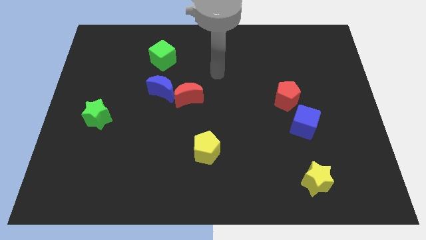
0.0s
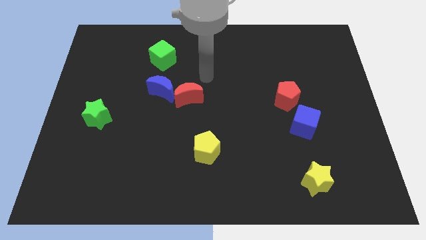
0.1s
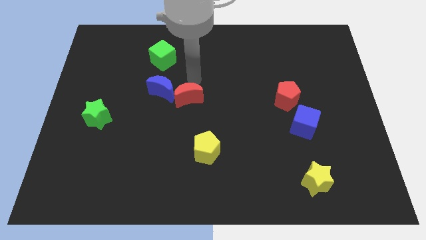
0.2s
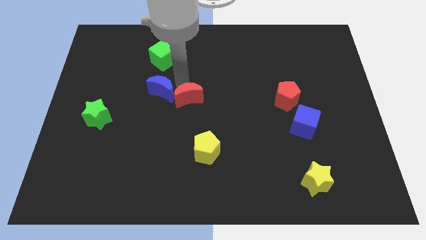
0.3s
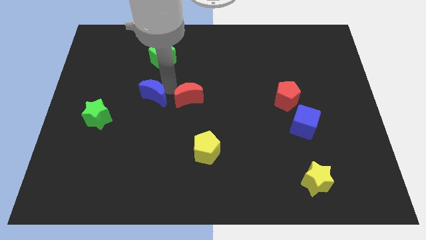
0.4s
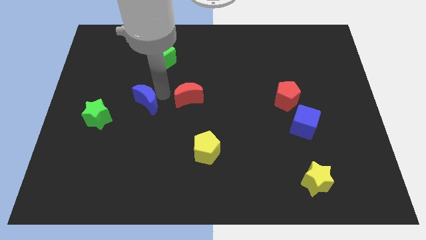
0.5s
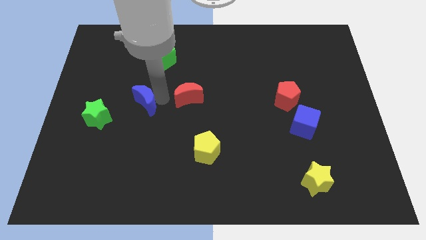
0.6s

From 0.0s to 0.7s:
separate the red moon from the blue moon

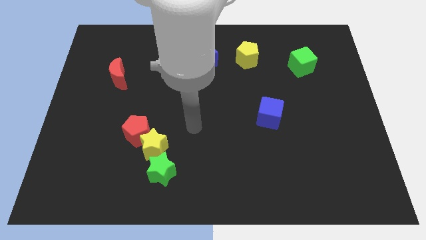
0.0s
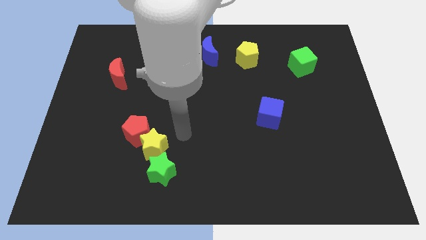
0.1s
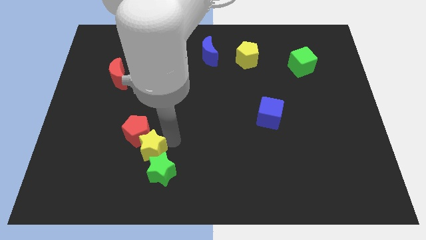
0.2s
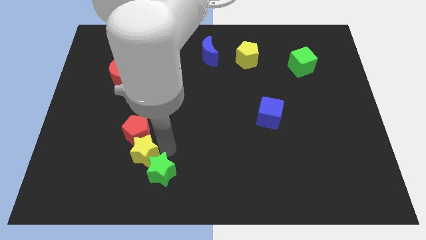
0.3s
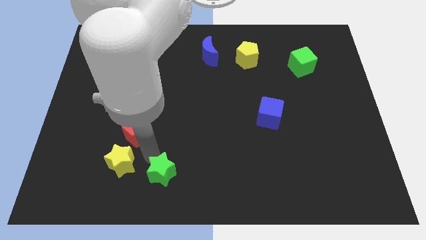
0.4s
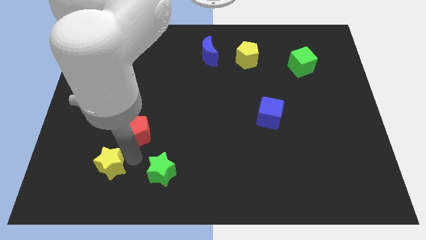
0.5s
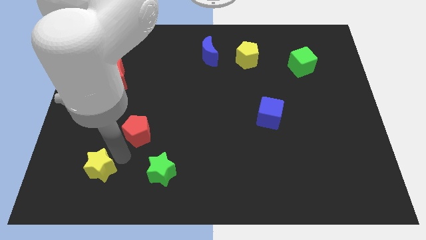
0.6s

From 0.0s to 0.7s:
separate the red pentagon from the yellow star

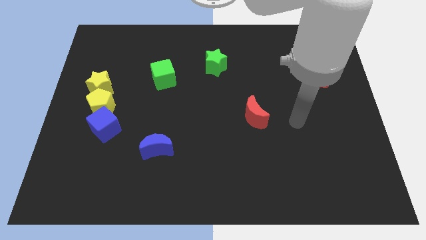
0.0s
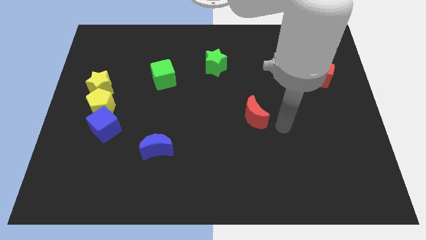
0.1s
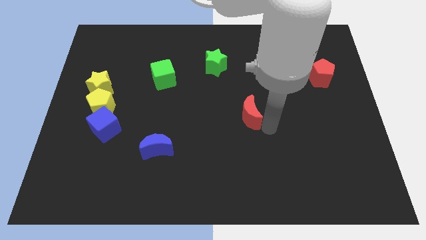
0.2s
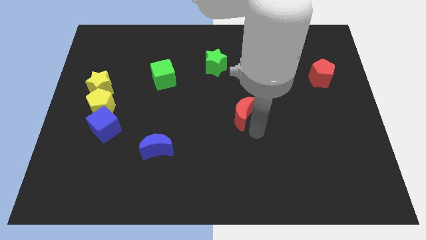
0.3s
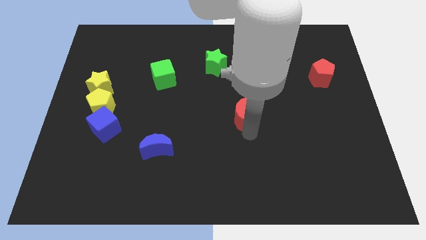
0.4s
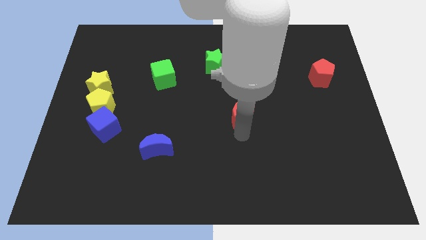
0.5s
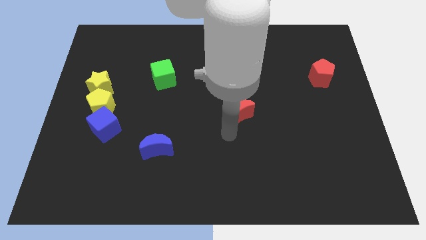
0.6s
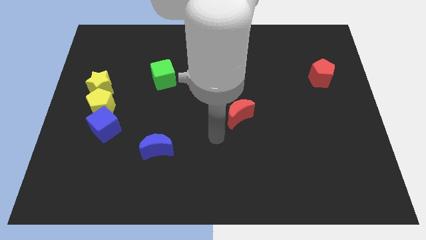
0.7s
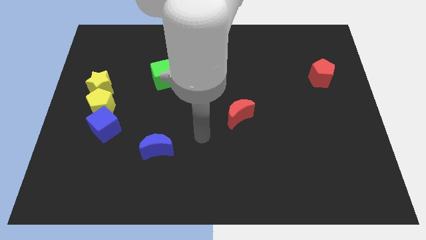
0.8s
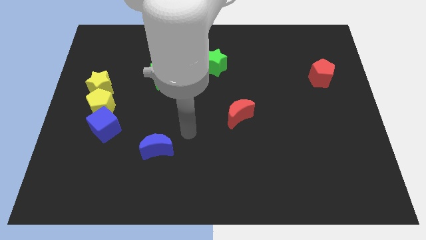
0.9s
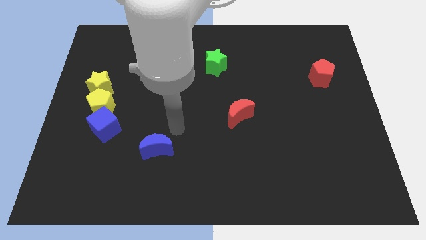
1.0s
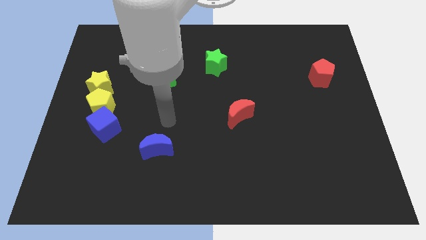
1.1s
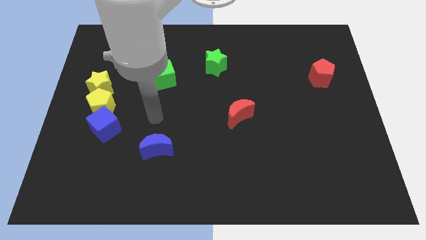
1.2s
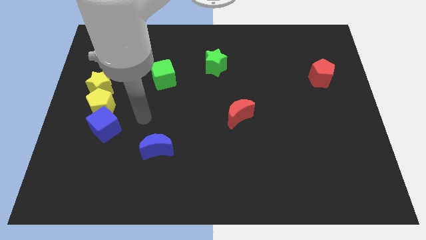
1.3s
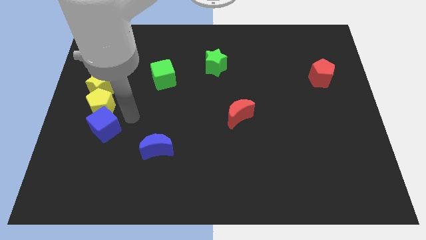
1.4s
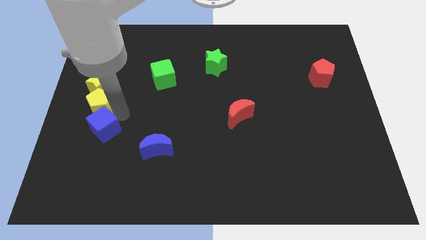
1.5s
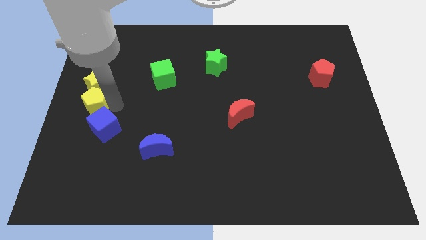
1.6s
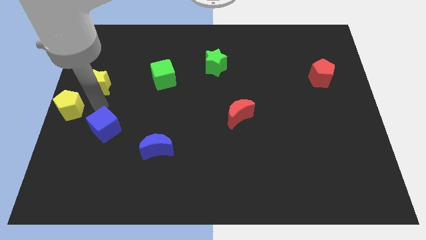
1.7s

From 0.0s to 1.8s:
pull the blue cube apart from the yellow pentagon

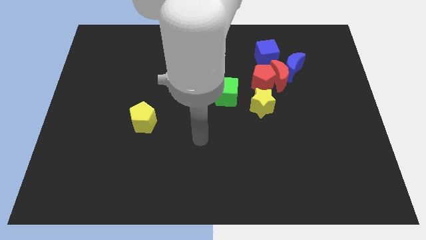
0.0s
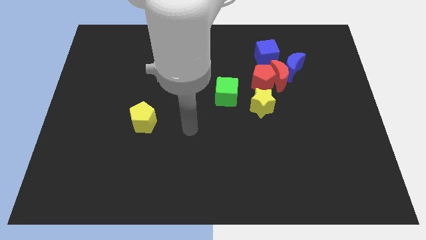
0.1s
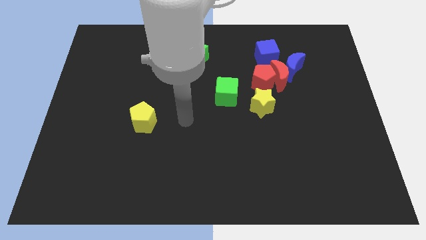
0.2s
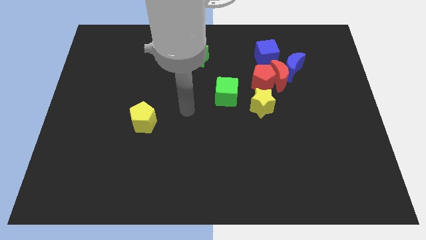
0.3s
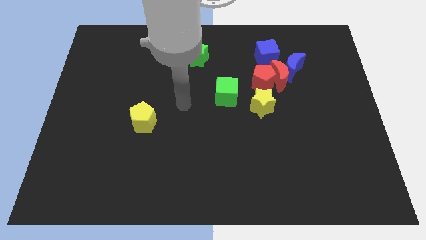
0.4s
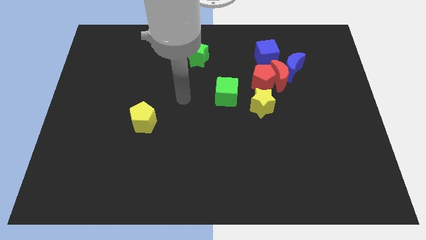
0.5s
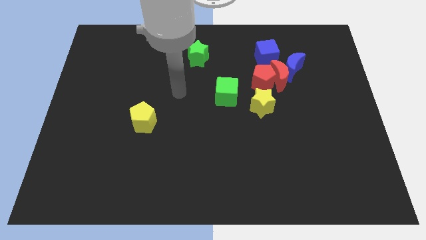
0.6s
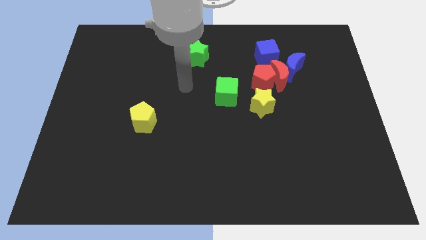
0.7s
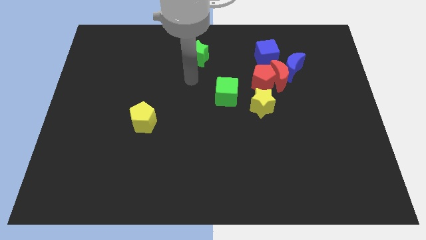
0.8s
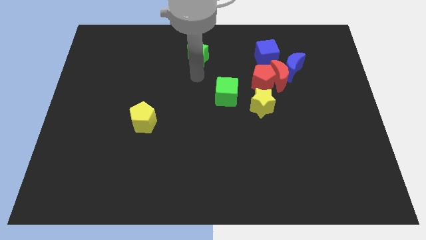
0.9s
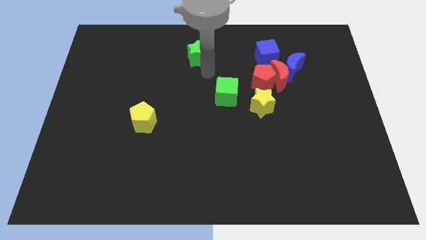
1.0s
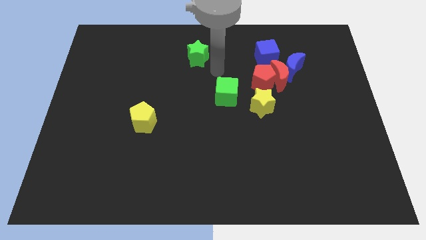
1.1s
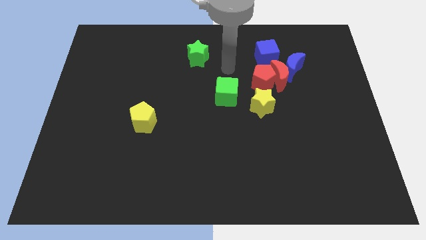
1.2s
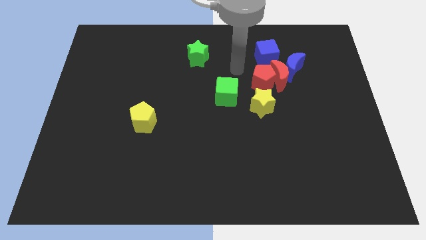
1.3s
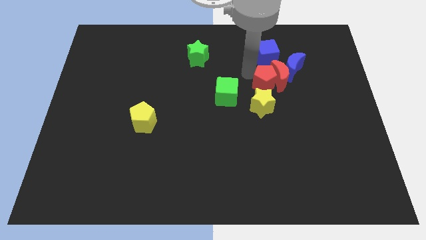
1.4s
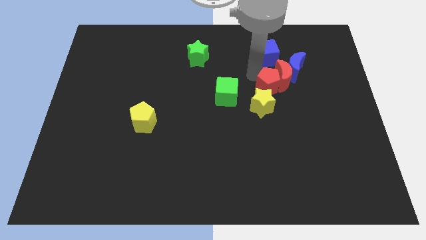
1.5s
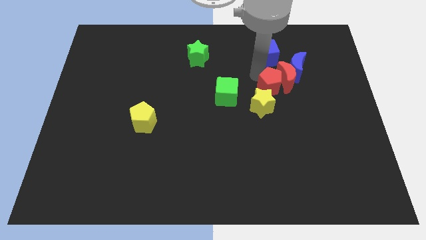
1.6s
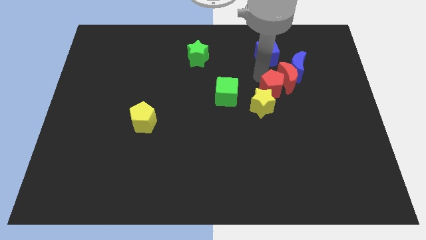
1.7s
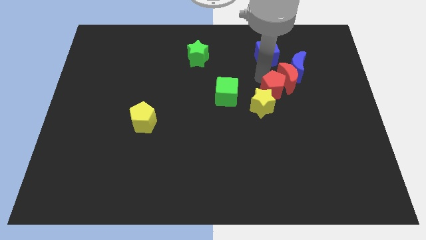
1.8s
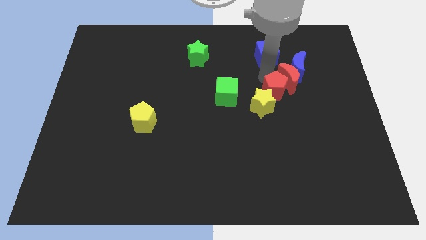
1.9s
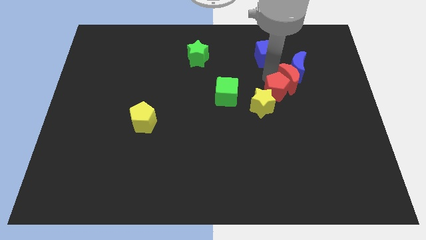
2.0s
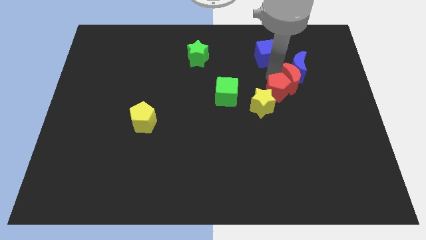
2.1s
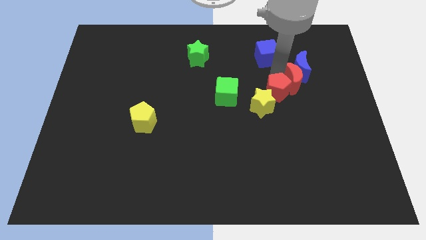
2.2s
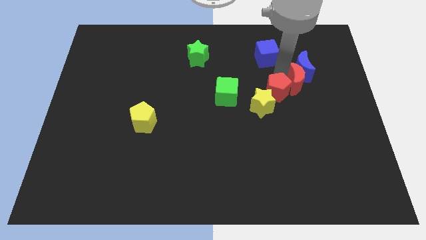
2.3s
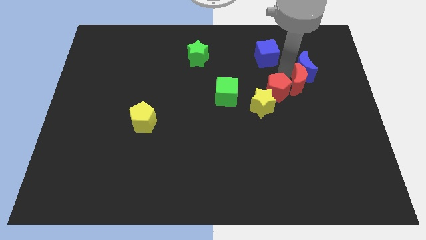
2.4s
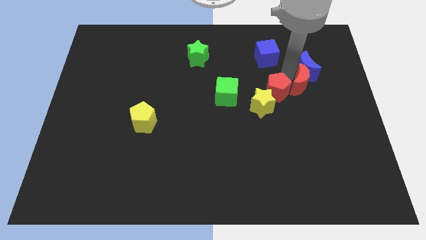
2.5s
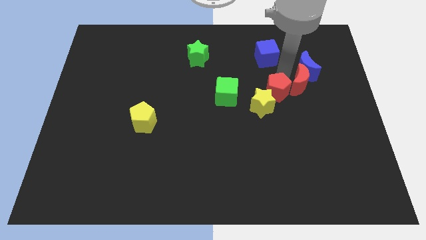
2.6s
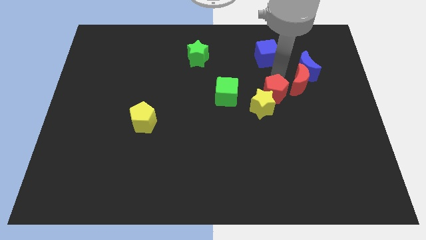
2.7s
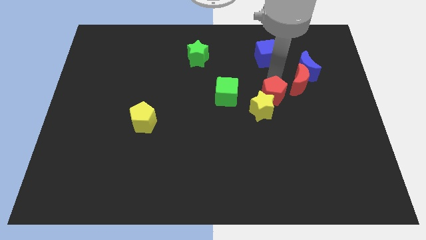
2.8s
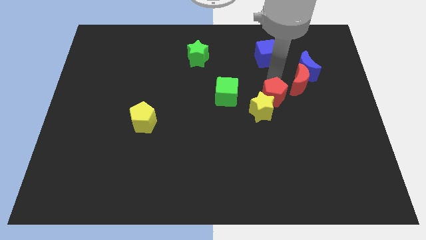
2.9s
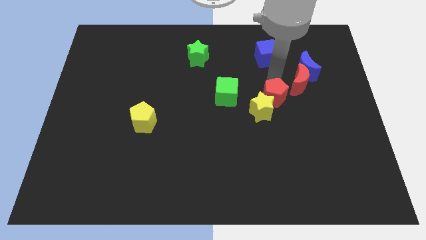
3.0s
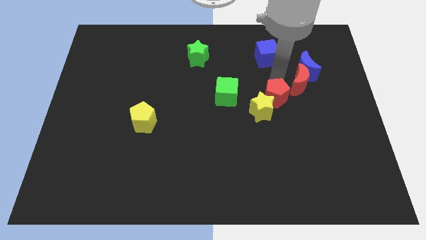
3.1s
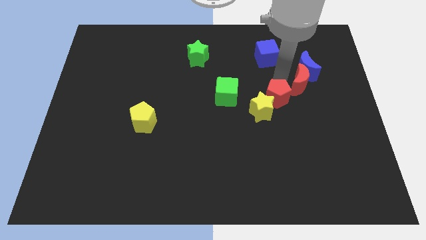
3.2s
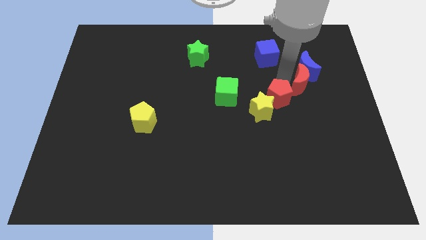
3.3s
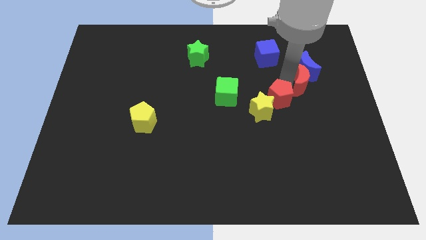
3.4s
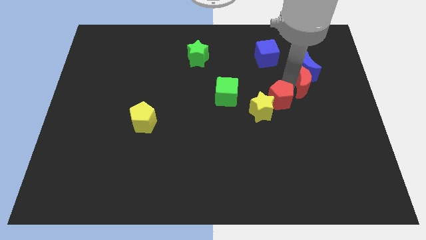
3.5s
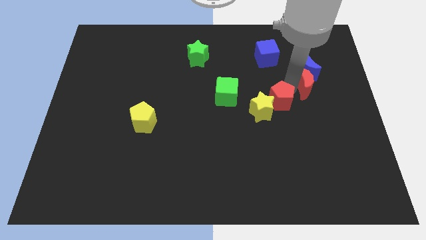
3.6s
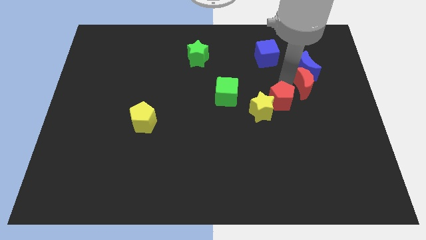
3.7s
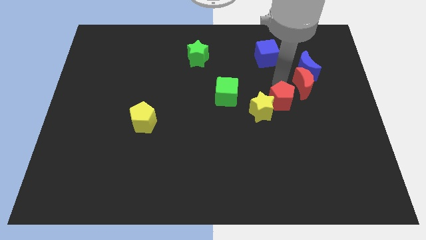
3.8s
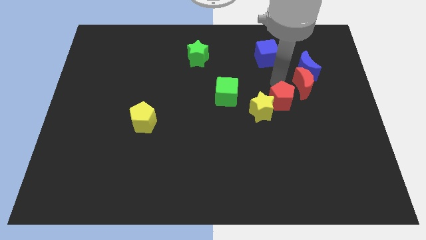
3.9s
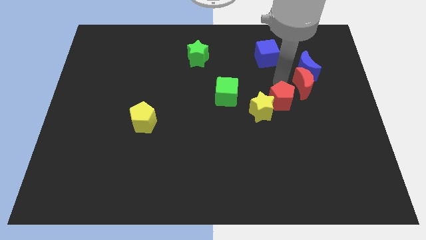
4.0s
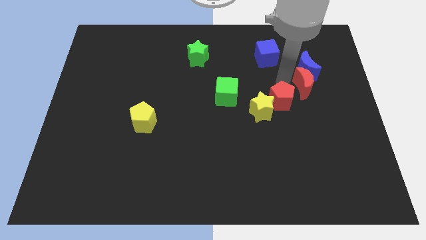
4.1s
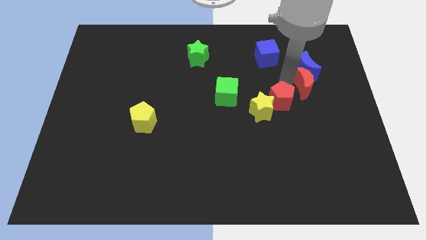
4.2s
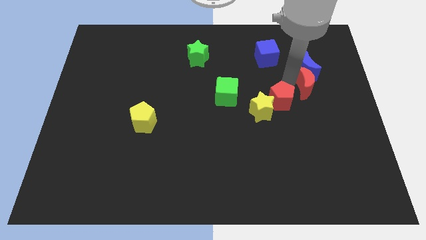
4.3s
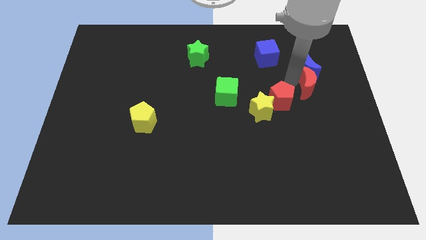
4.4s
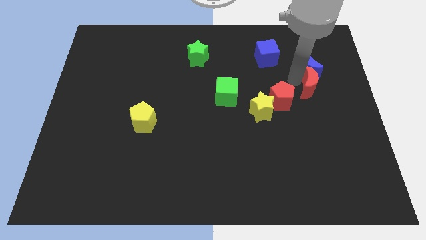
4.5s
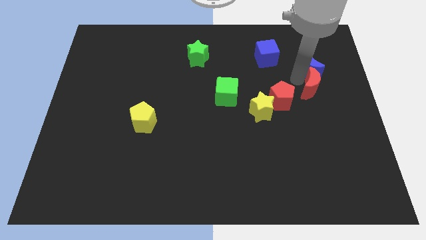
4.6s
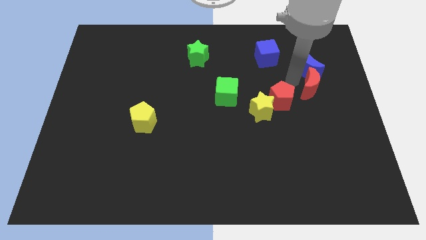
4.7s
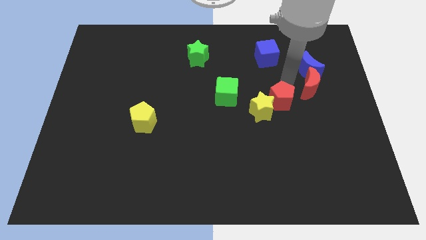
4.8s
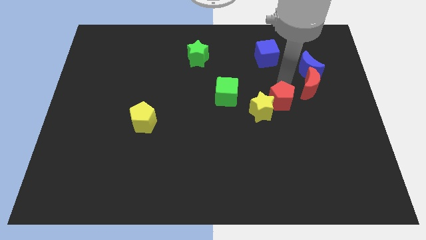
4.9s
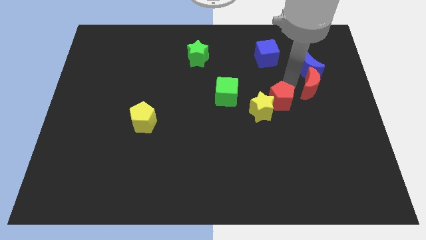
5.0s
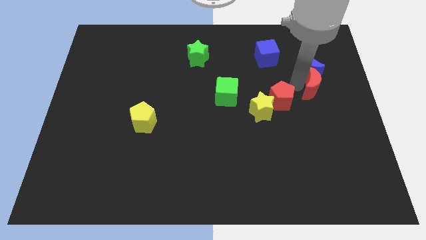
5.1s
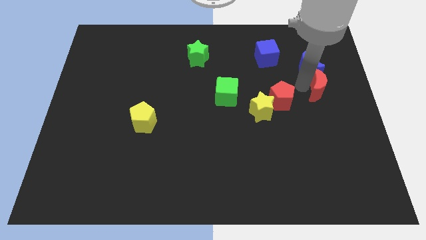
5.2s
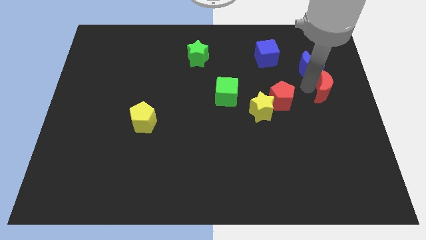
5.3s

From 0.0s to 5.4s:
pull the red moon apart from the group of blocks

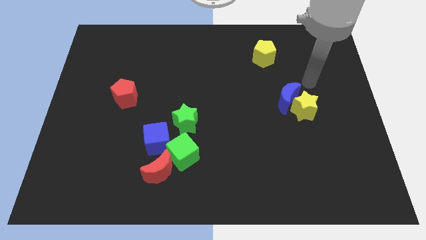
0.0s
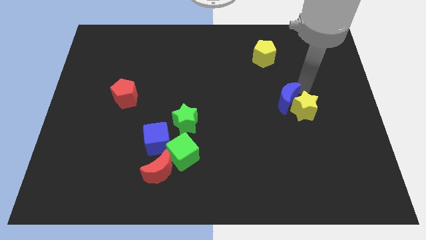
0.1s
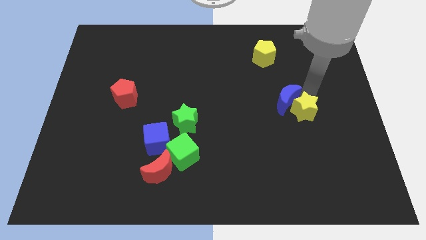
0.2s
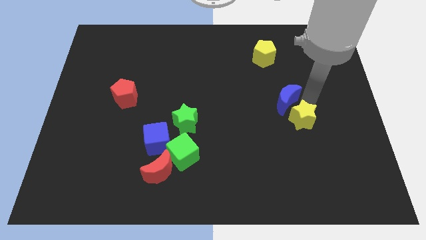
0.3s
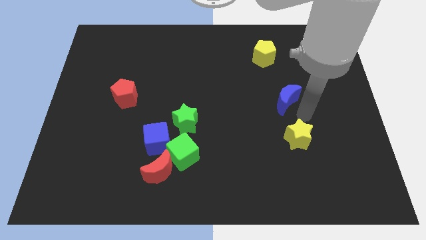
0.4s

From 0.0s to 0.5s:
move the blue moon away from the yellow star

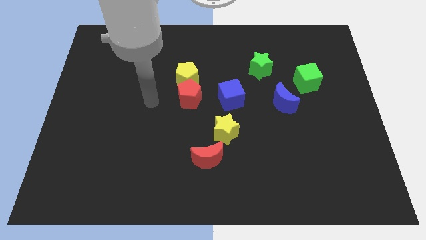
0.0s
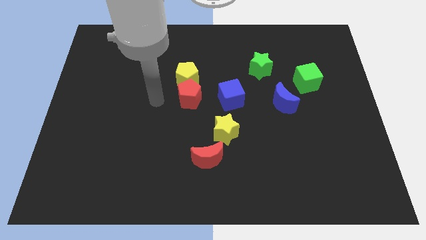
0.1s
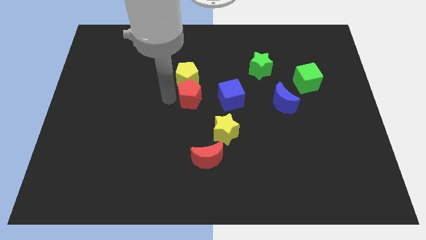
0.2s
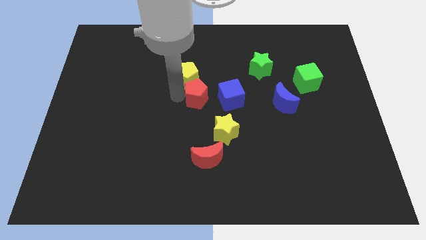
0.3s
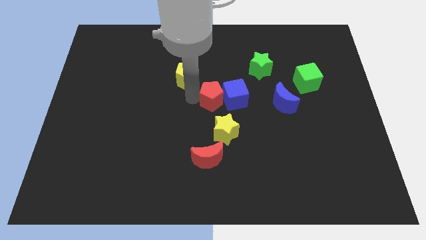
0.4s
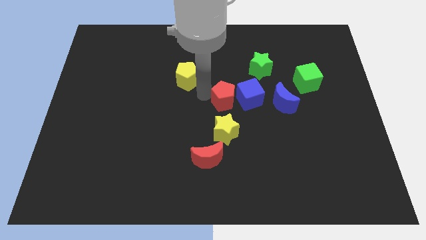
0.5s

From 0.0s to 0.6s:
move the yellow pentagon away from the red pentagon
